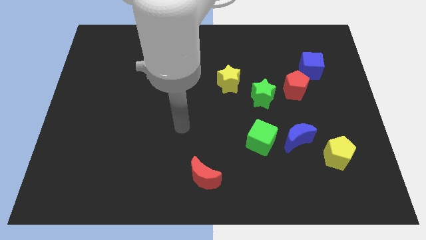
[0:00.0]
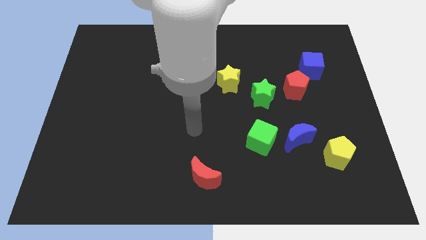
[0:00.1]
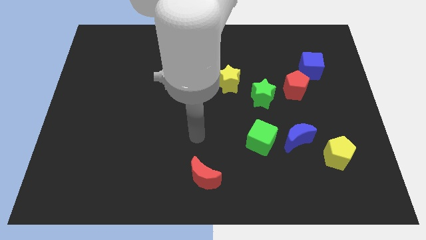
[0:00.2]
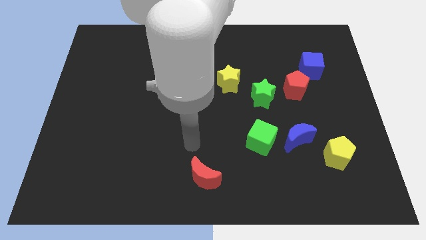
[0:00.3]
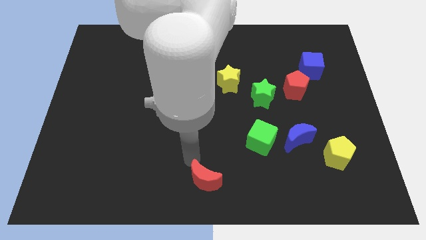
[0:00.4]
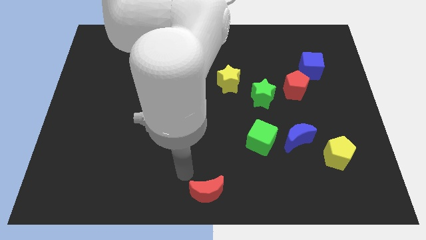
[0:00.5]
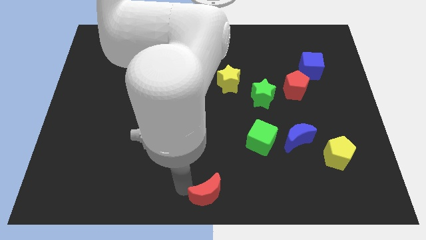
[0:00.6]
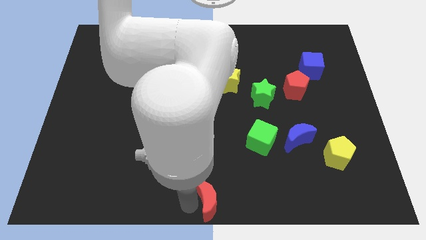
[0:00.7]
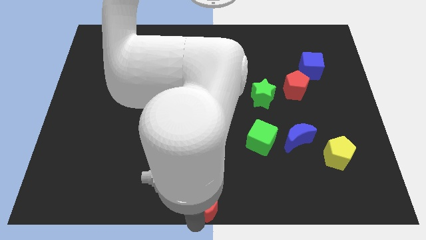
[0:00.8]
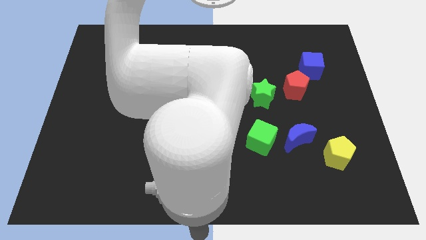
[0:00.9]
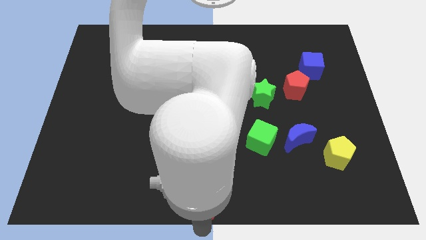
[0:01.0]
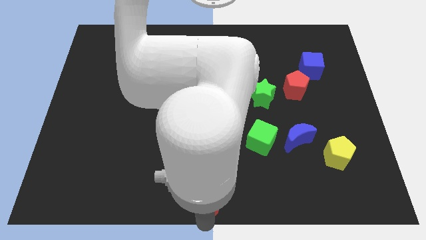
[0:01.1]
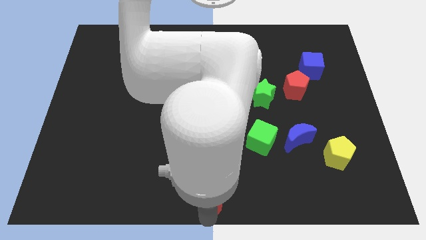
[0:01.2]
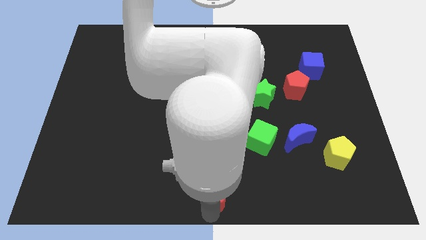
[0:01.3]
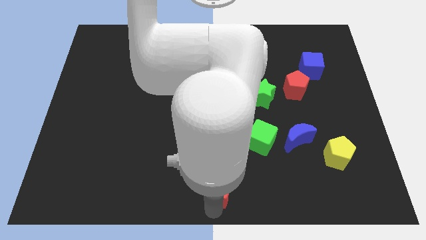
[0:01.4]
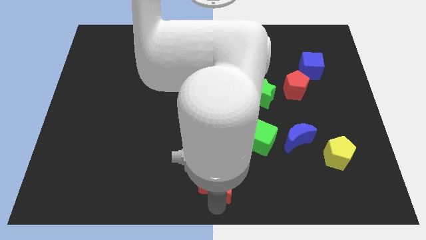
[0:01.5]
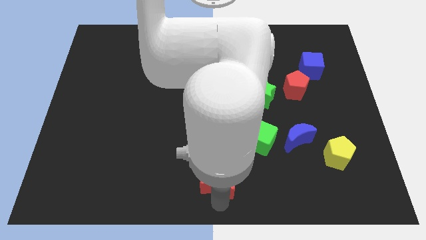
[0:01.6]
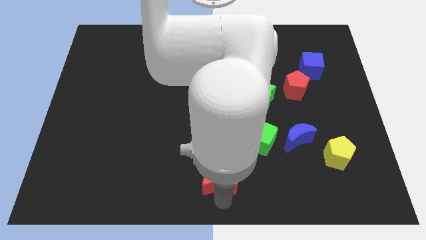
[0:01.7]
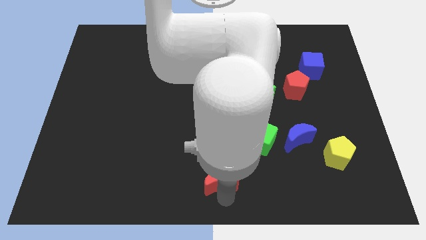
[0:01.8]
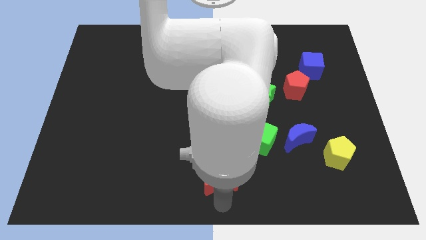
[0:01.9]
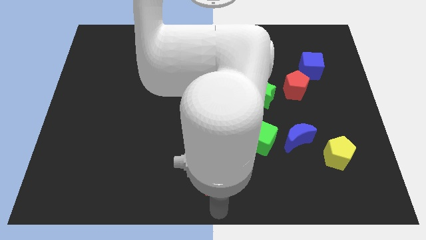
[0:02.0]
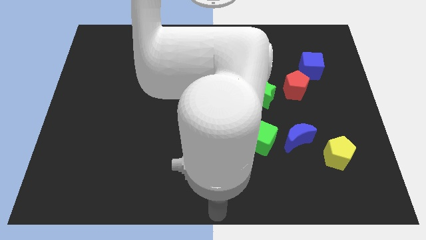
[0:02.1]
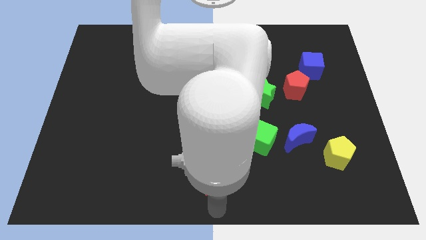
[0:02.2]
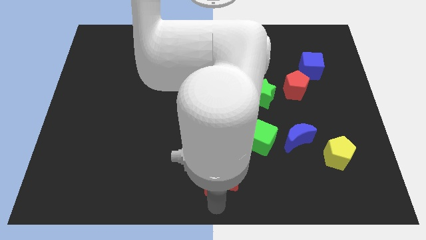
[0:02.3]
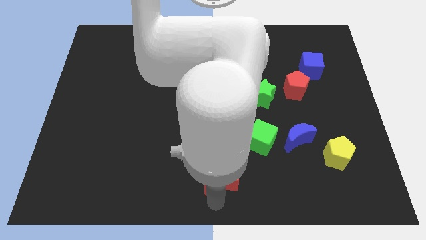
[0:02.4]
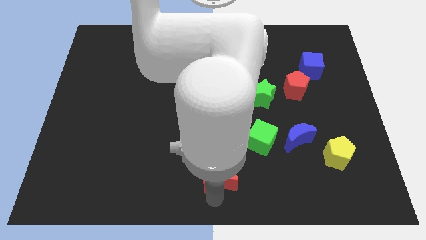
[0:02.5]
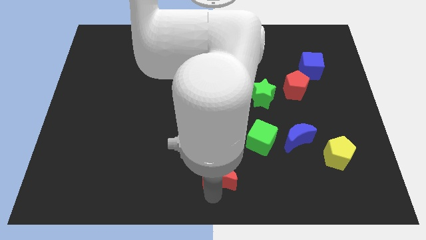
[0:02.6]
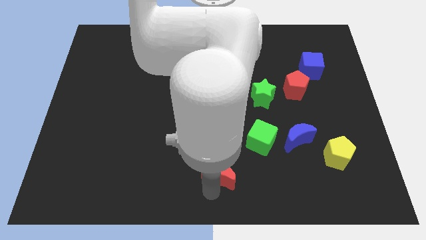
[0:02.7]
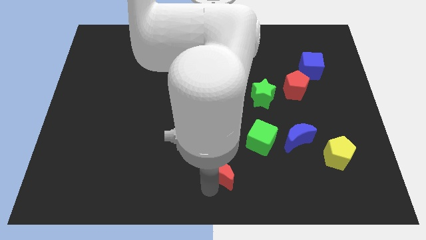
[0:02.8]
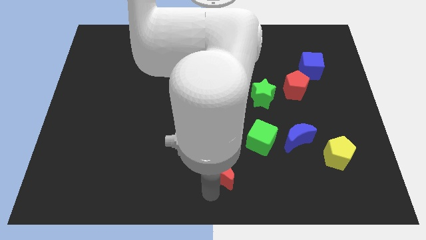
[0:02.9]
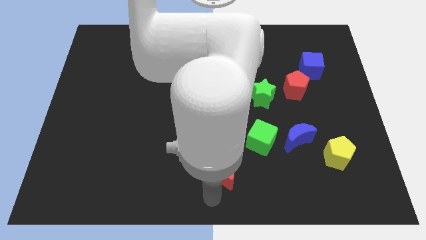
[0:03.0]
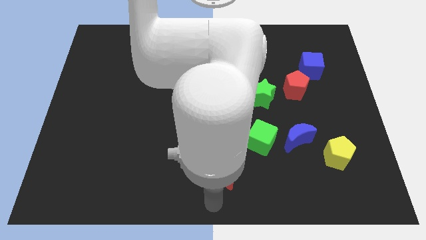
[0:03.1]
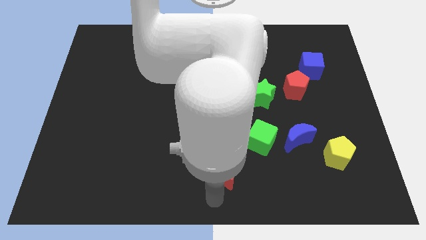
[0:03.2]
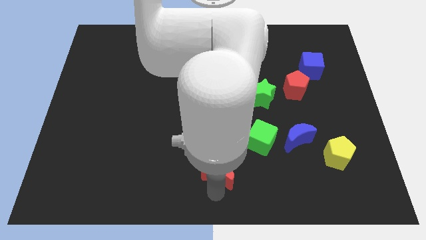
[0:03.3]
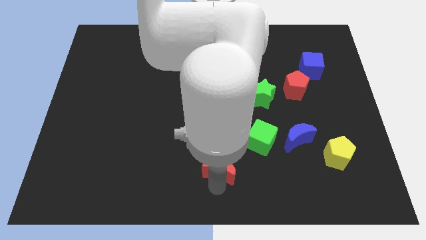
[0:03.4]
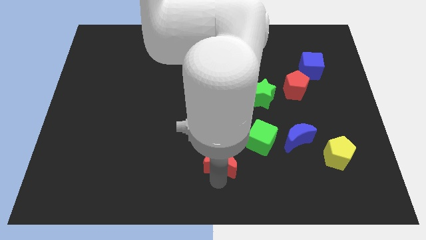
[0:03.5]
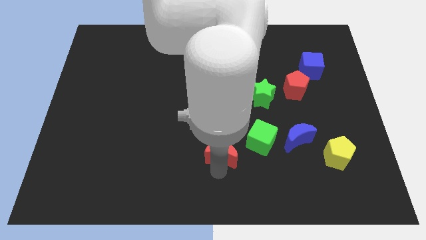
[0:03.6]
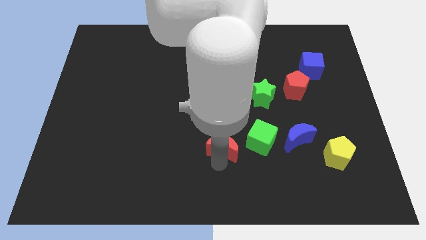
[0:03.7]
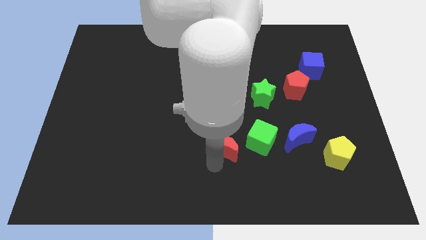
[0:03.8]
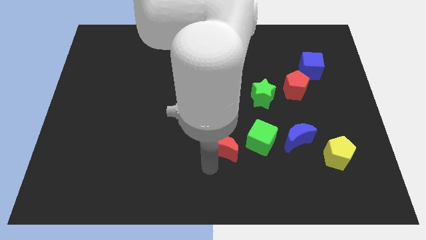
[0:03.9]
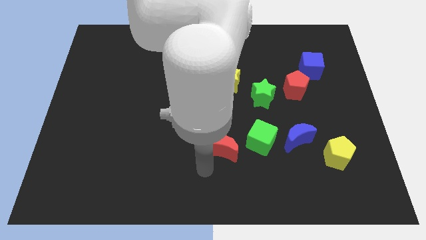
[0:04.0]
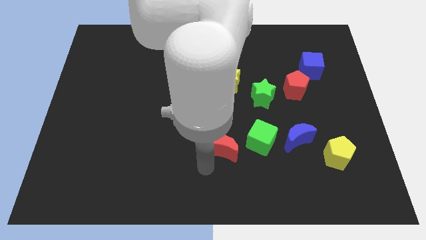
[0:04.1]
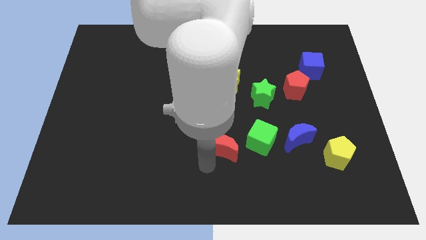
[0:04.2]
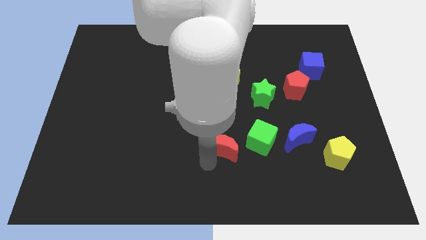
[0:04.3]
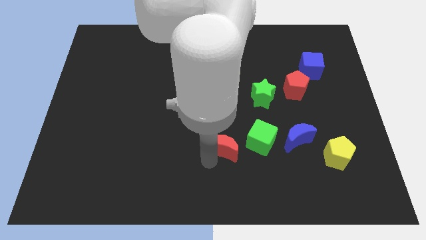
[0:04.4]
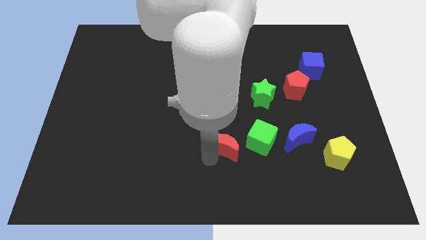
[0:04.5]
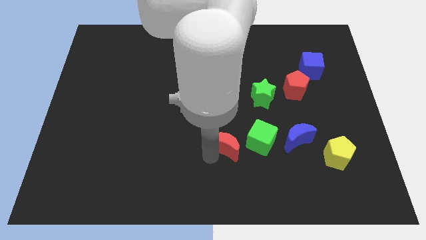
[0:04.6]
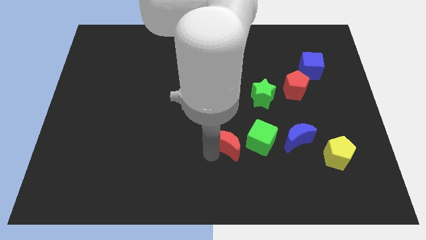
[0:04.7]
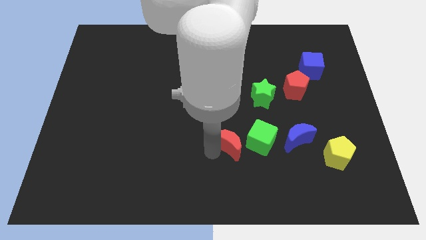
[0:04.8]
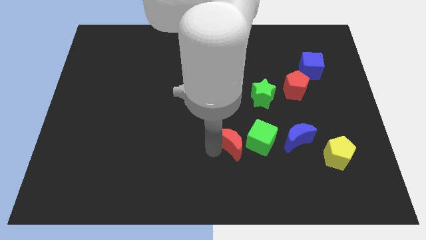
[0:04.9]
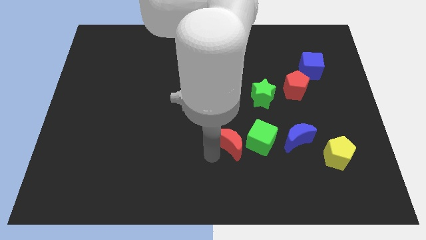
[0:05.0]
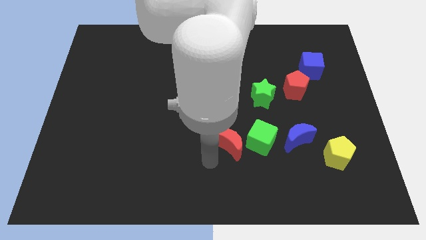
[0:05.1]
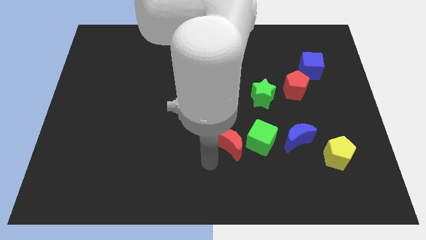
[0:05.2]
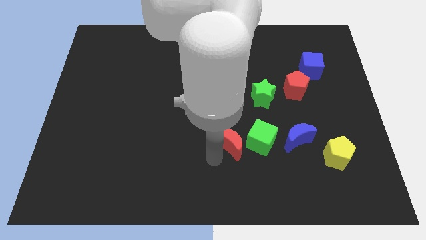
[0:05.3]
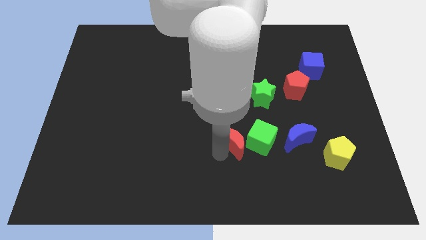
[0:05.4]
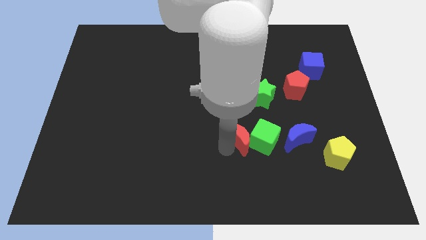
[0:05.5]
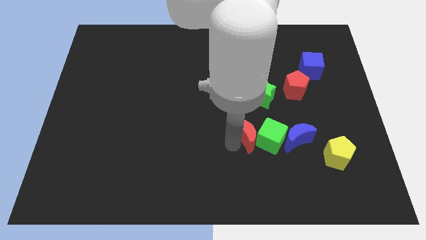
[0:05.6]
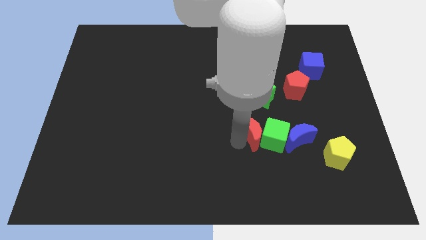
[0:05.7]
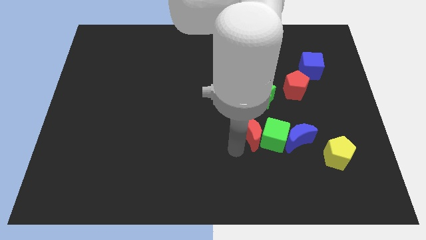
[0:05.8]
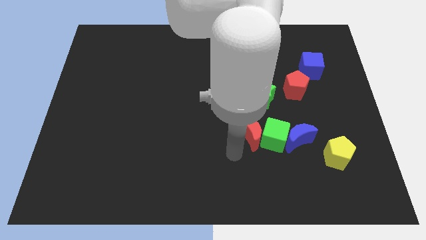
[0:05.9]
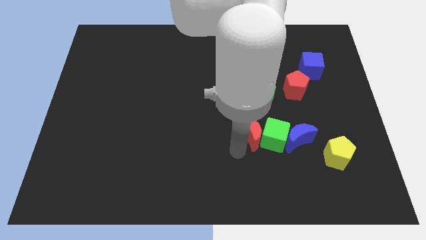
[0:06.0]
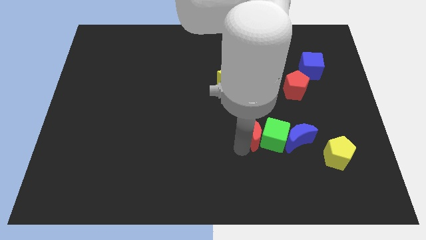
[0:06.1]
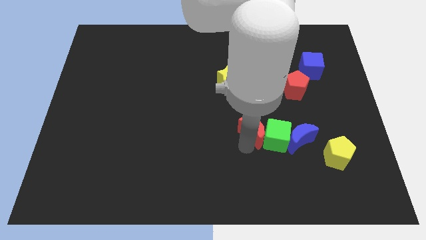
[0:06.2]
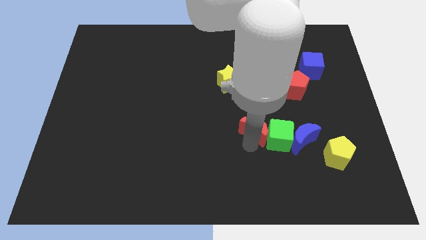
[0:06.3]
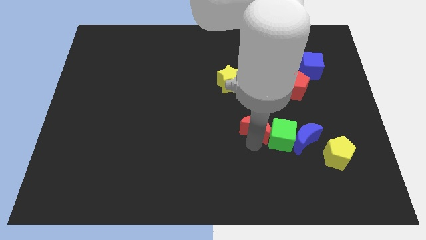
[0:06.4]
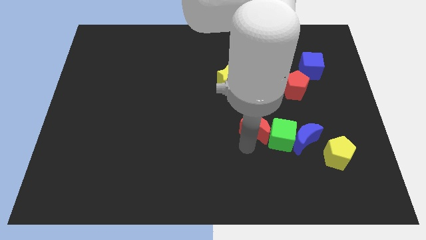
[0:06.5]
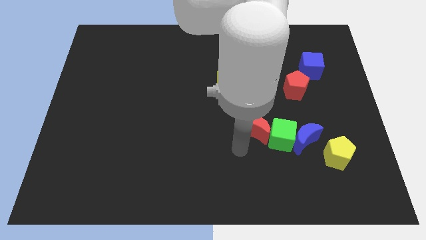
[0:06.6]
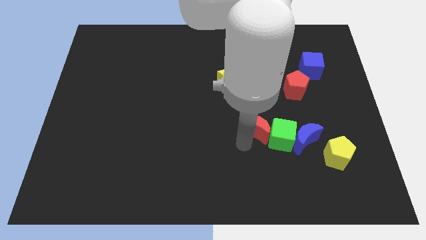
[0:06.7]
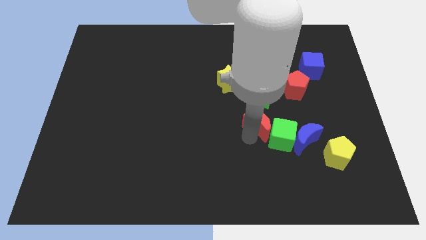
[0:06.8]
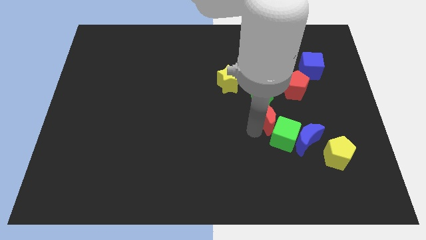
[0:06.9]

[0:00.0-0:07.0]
push the red moon to the bottom left side of the red pentagon
